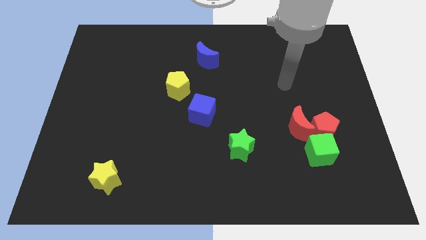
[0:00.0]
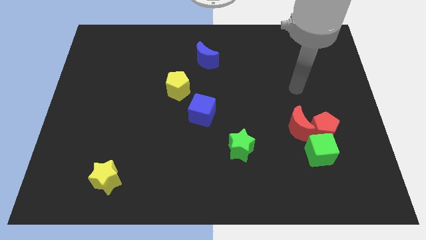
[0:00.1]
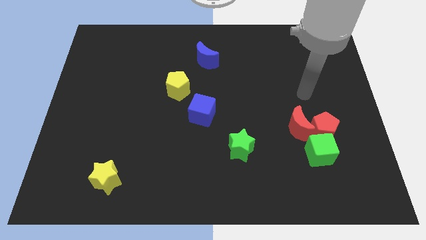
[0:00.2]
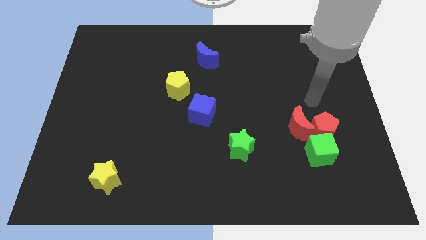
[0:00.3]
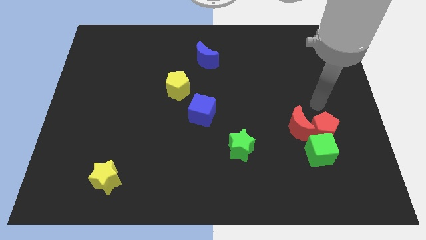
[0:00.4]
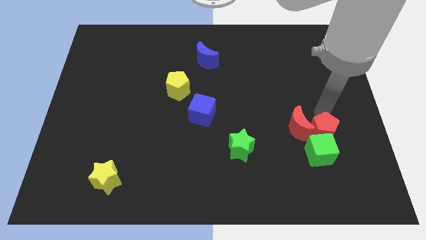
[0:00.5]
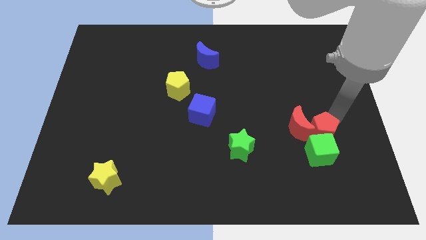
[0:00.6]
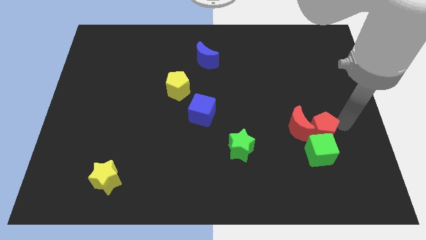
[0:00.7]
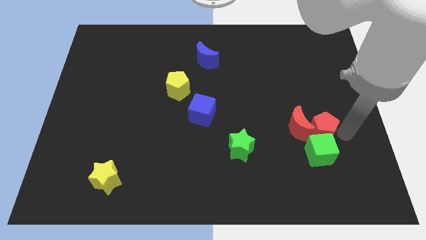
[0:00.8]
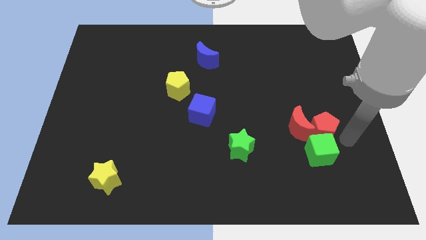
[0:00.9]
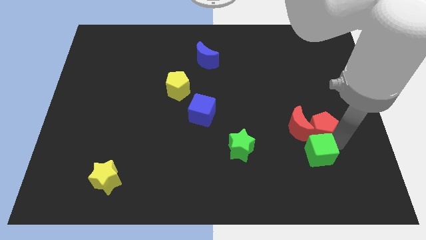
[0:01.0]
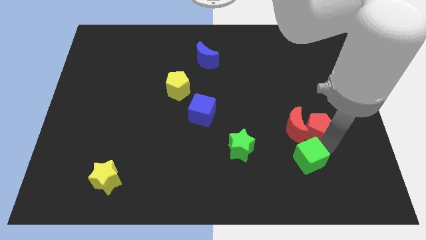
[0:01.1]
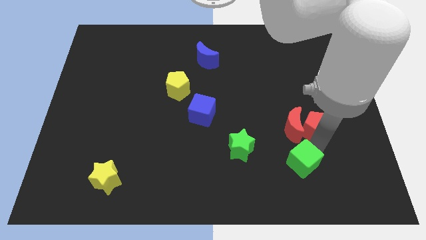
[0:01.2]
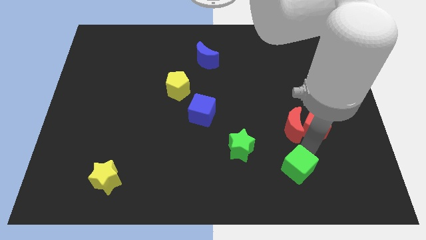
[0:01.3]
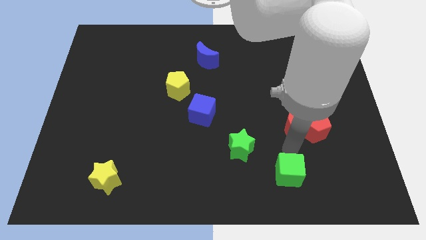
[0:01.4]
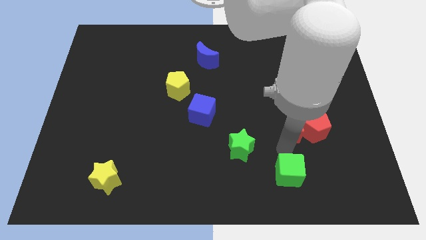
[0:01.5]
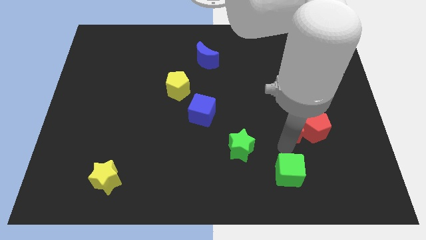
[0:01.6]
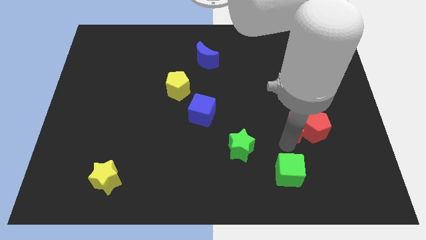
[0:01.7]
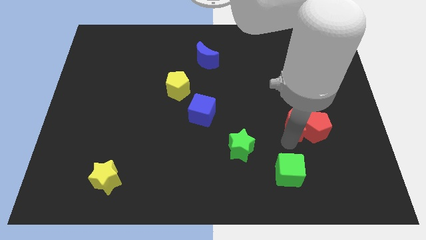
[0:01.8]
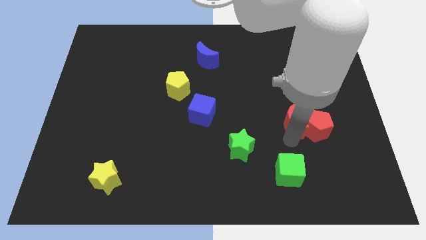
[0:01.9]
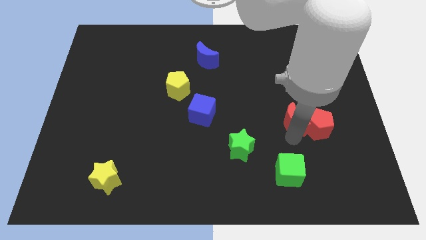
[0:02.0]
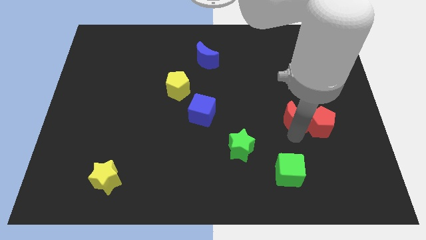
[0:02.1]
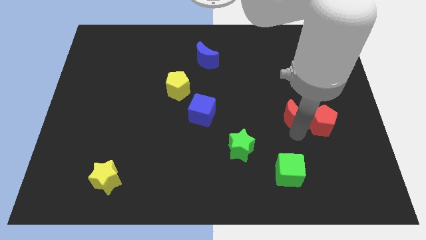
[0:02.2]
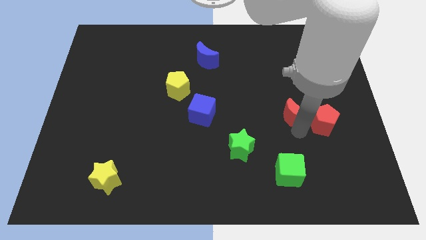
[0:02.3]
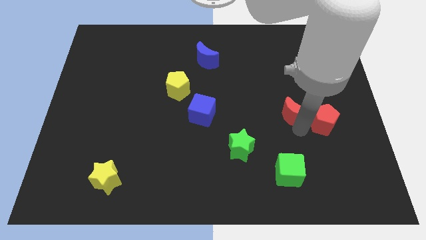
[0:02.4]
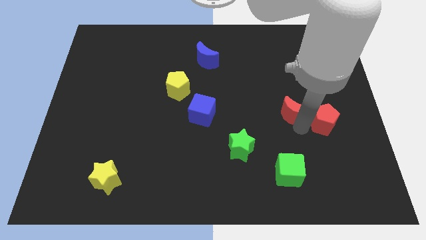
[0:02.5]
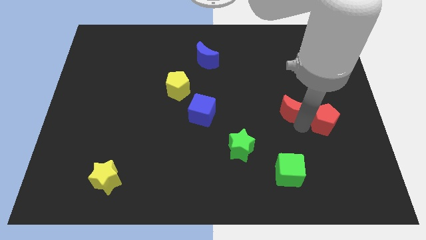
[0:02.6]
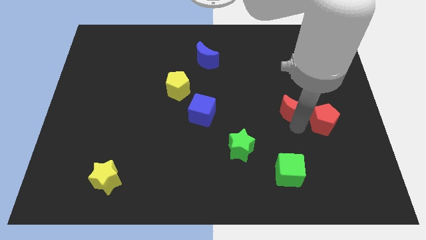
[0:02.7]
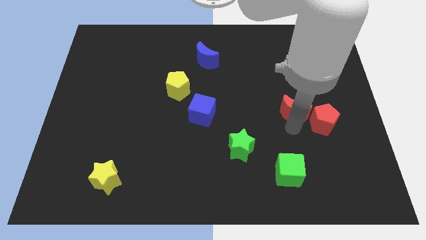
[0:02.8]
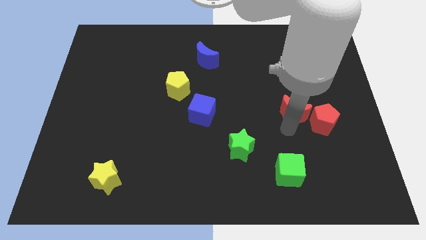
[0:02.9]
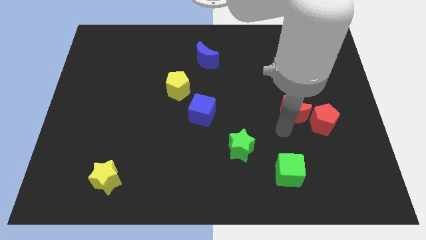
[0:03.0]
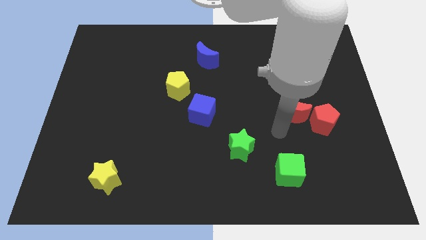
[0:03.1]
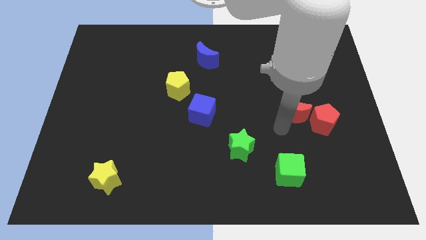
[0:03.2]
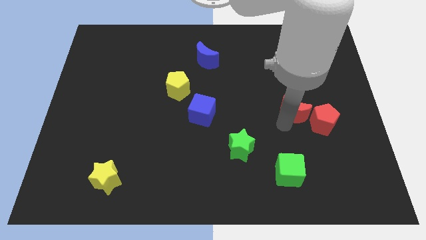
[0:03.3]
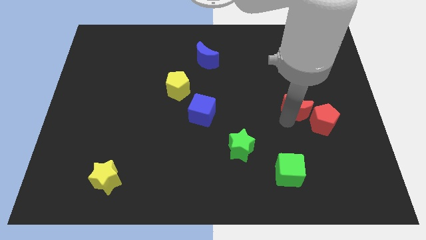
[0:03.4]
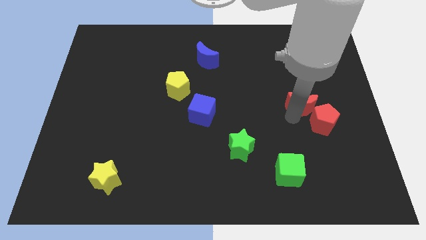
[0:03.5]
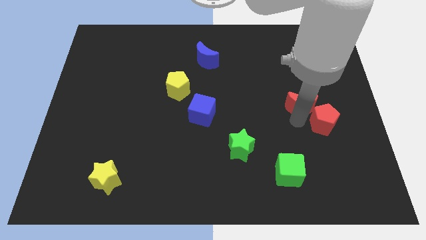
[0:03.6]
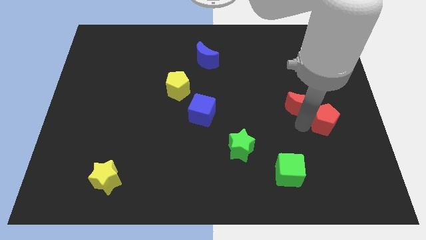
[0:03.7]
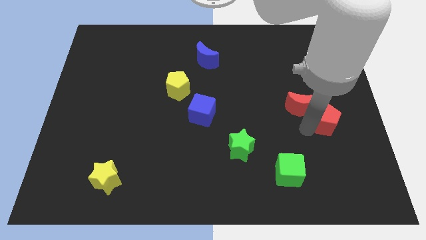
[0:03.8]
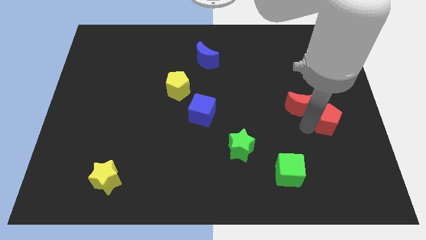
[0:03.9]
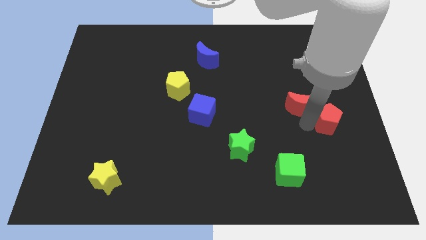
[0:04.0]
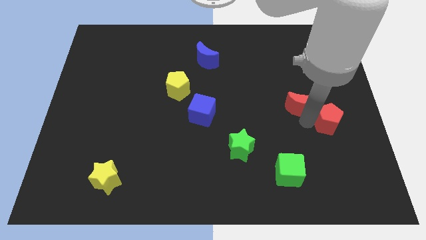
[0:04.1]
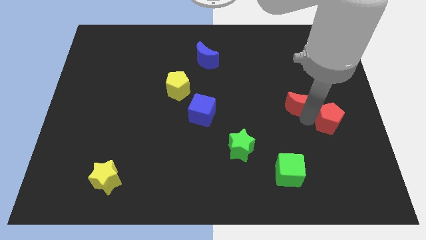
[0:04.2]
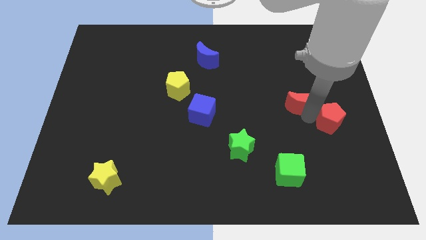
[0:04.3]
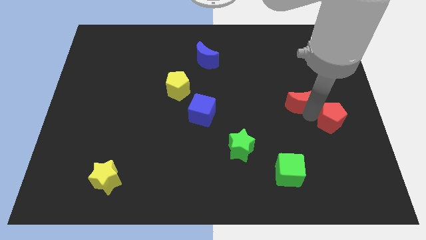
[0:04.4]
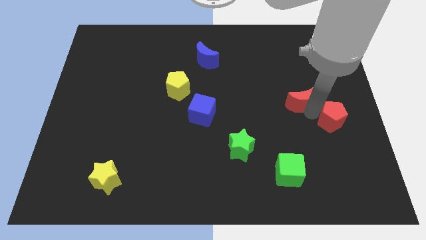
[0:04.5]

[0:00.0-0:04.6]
slightly push the red moon up

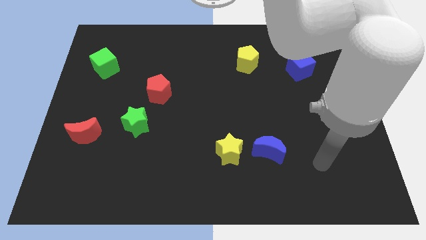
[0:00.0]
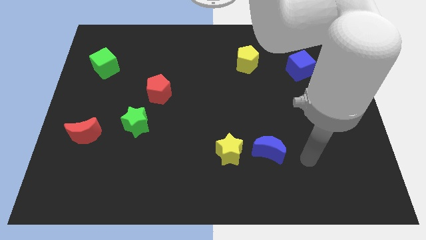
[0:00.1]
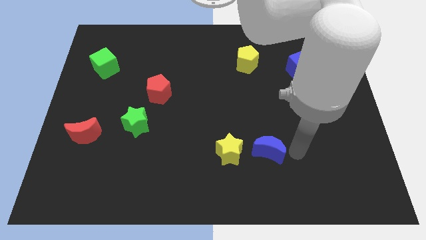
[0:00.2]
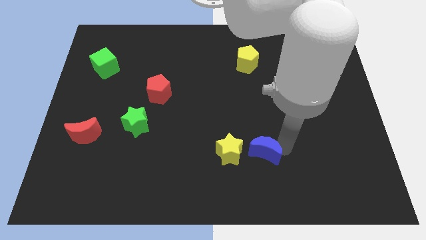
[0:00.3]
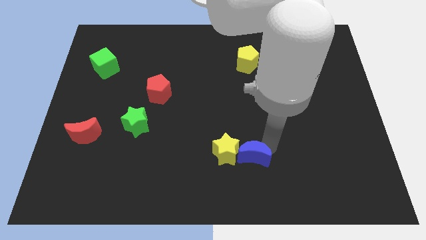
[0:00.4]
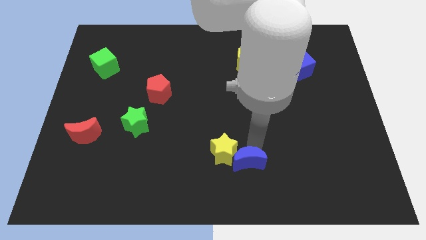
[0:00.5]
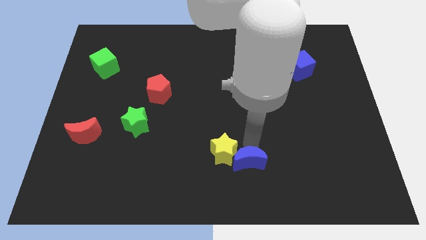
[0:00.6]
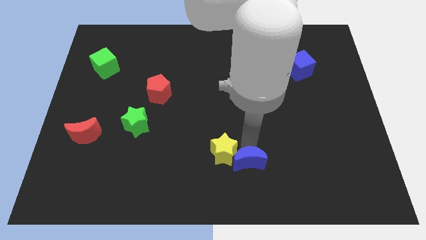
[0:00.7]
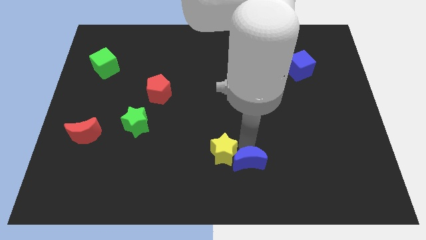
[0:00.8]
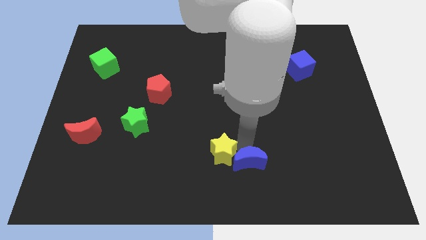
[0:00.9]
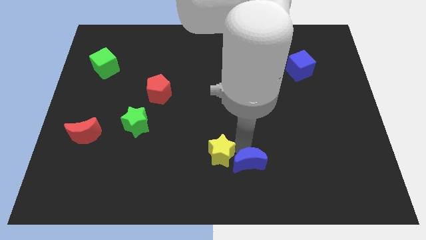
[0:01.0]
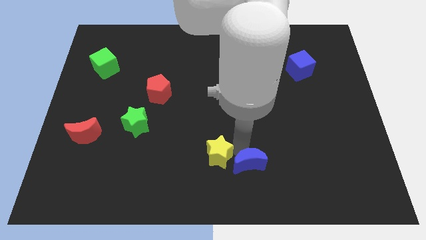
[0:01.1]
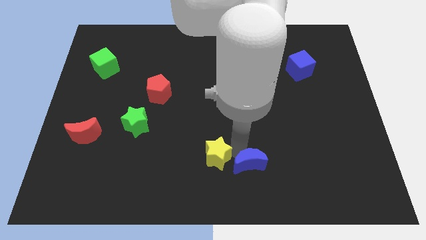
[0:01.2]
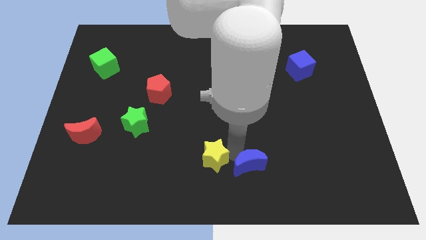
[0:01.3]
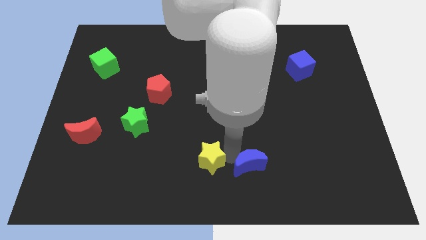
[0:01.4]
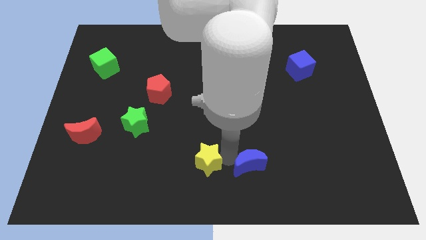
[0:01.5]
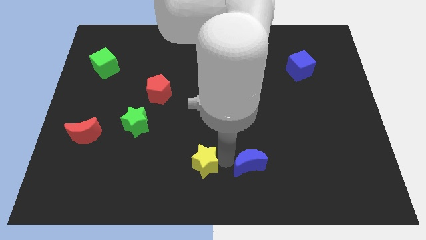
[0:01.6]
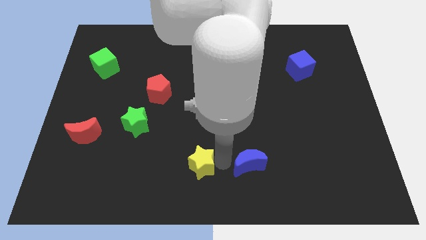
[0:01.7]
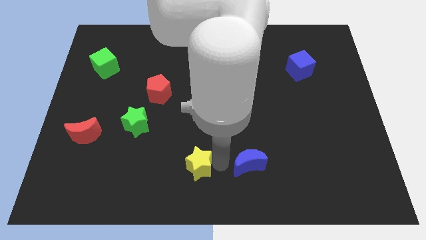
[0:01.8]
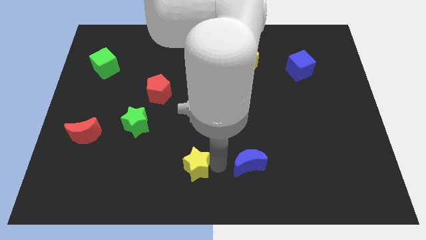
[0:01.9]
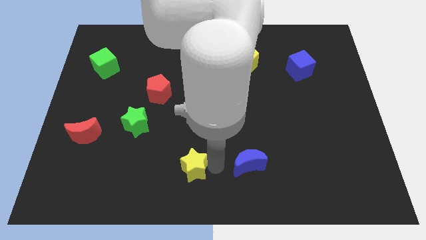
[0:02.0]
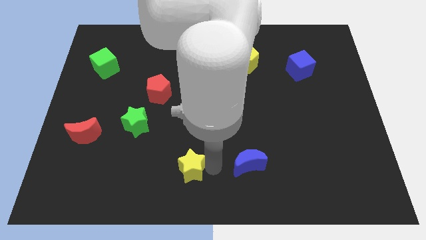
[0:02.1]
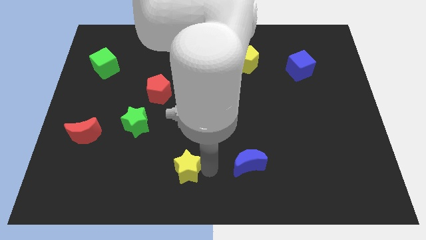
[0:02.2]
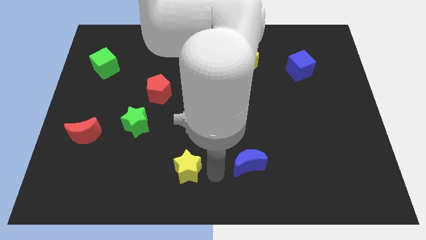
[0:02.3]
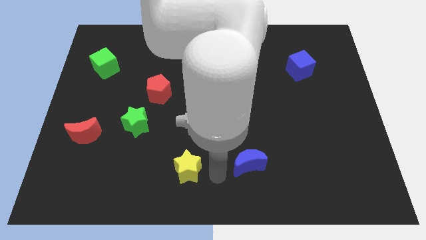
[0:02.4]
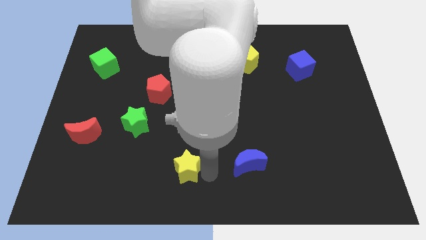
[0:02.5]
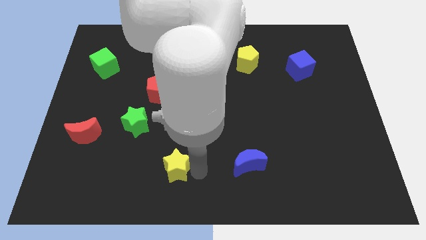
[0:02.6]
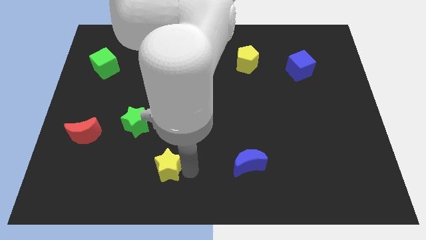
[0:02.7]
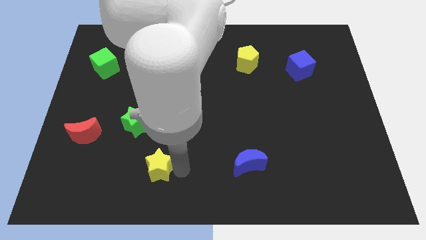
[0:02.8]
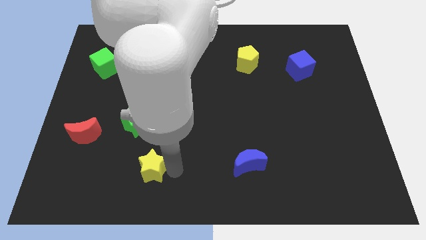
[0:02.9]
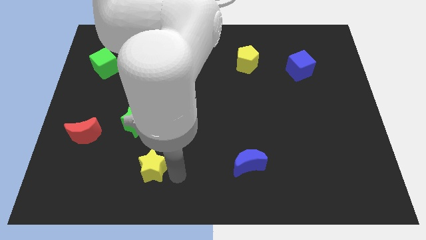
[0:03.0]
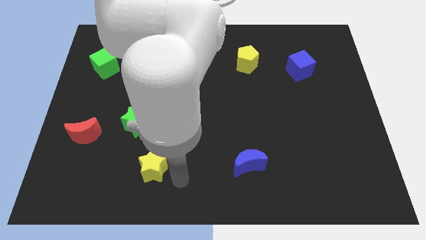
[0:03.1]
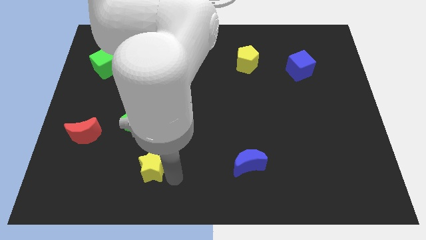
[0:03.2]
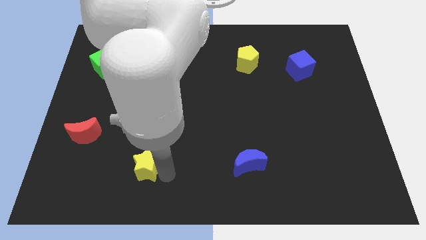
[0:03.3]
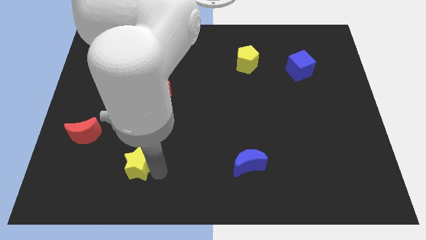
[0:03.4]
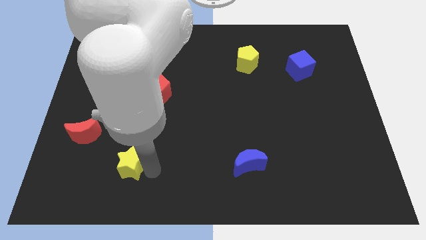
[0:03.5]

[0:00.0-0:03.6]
move the yellow star to the left
